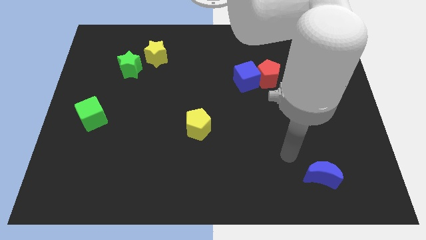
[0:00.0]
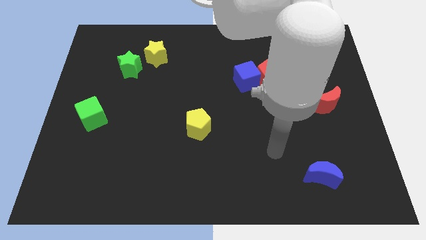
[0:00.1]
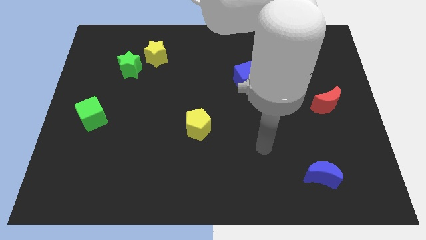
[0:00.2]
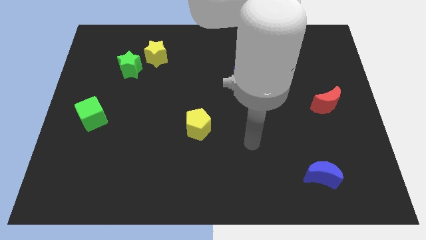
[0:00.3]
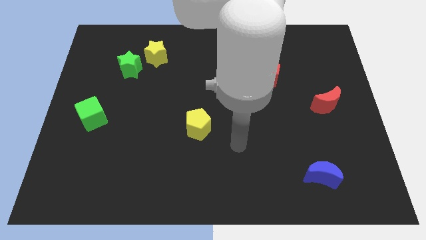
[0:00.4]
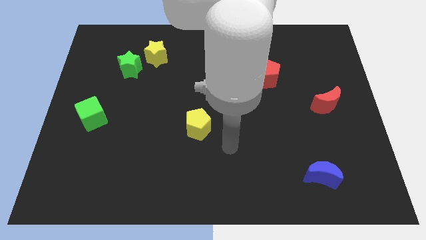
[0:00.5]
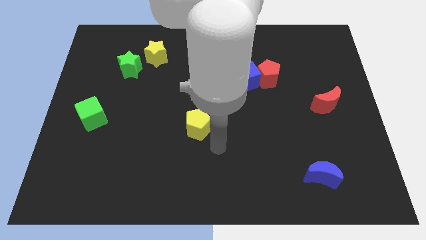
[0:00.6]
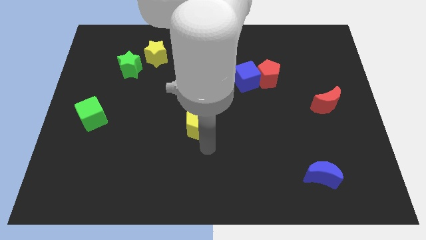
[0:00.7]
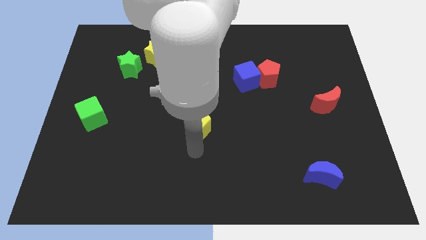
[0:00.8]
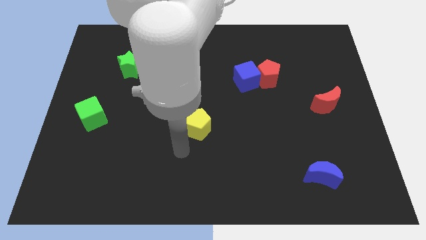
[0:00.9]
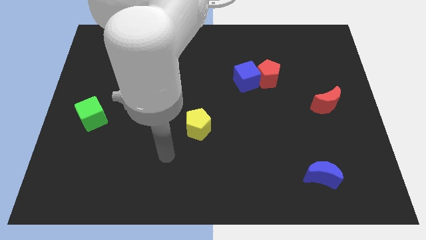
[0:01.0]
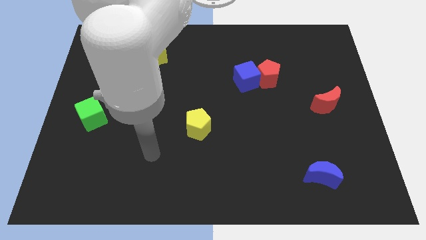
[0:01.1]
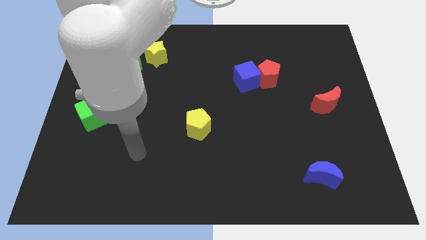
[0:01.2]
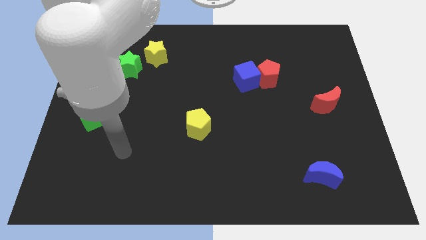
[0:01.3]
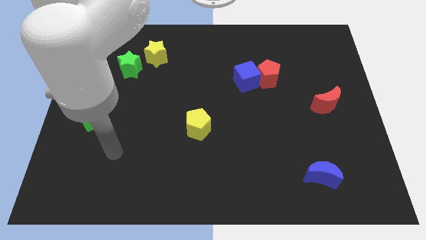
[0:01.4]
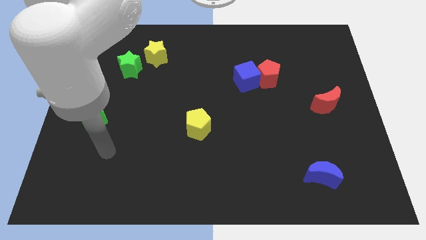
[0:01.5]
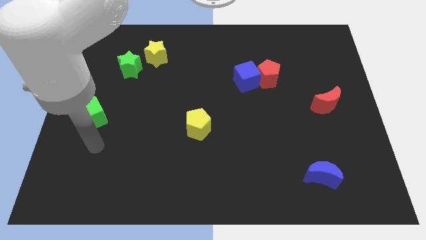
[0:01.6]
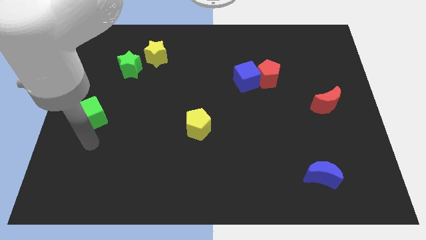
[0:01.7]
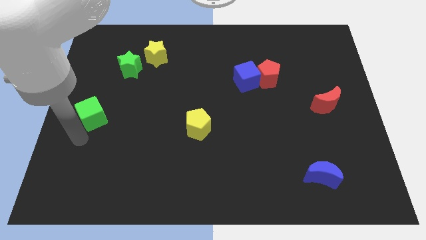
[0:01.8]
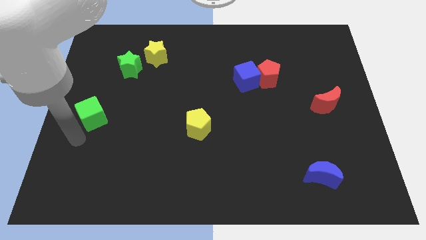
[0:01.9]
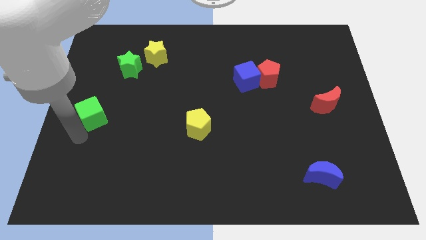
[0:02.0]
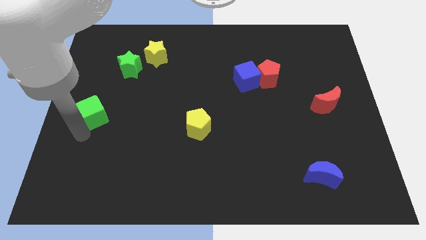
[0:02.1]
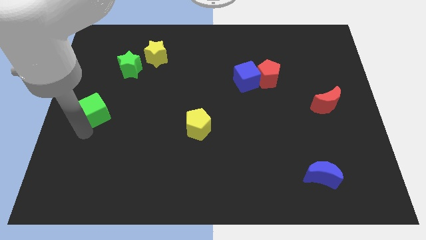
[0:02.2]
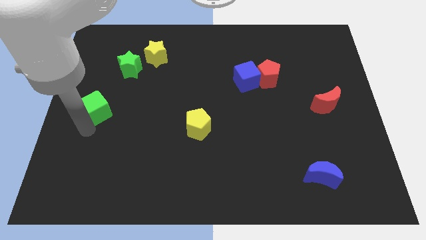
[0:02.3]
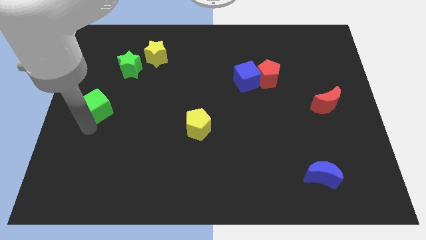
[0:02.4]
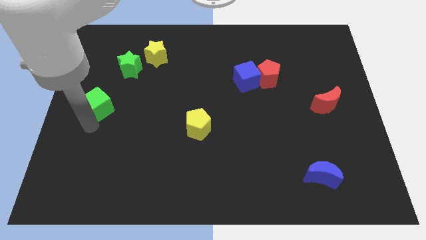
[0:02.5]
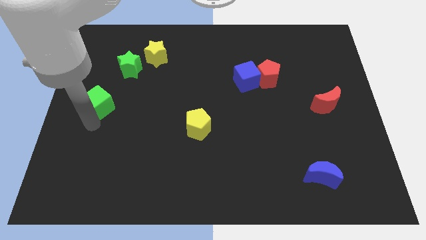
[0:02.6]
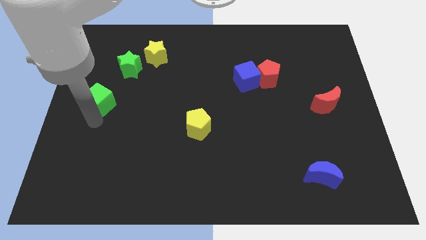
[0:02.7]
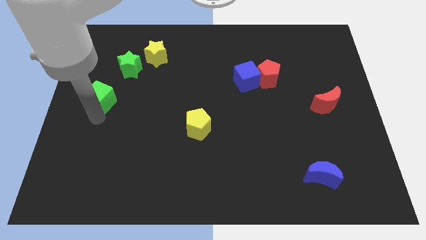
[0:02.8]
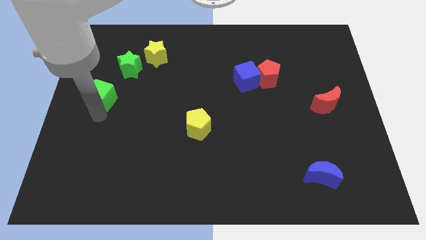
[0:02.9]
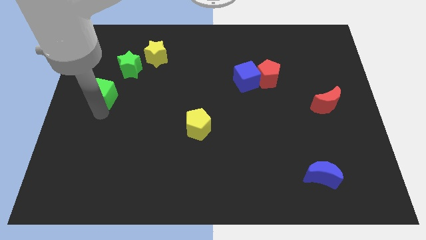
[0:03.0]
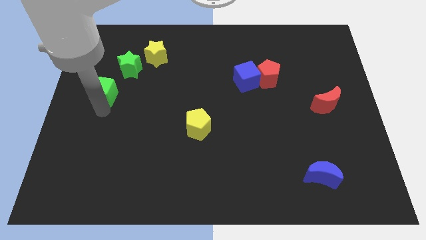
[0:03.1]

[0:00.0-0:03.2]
move the green cube upwards a bit

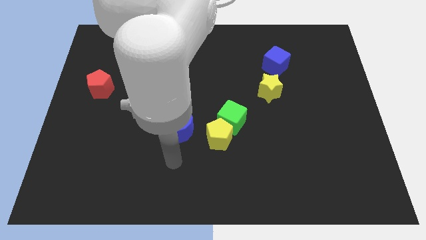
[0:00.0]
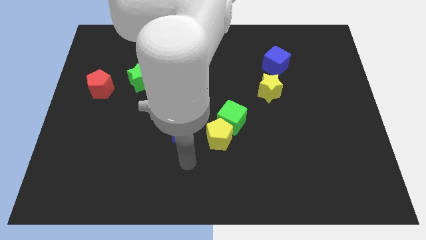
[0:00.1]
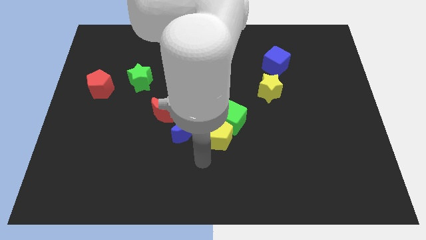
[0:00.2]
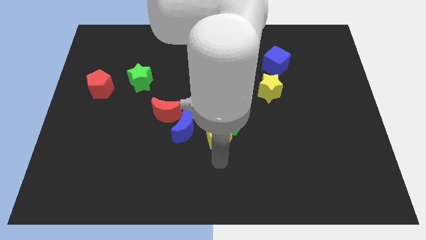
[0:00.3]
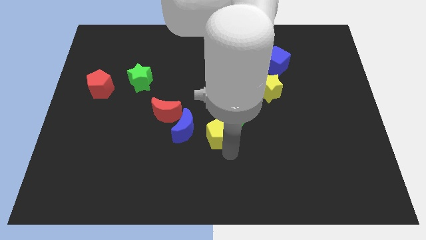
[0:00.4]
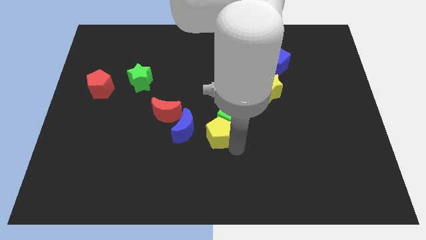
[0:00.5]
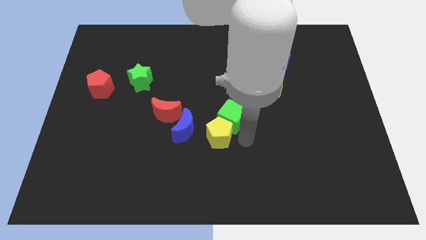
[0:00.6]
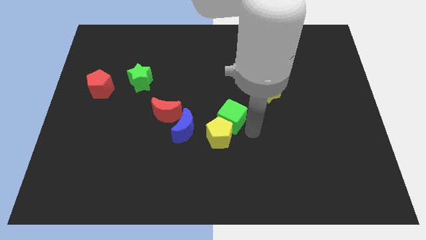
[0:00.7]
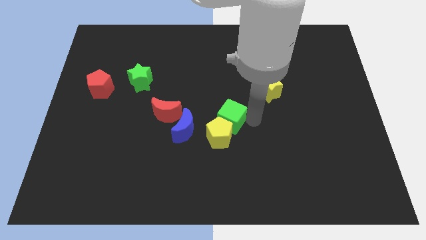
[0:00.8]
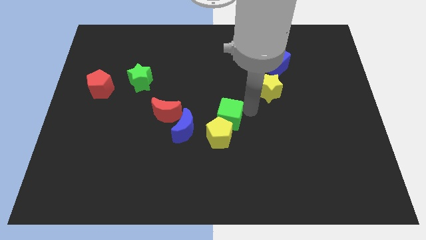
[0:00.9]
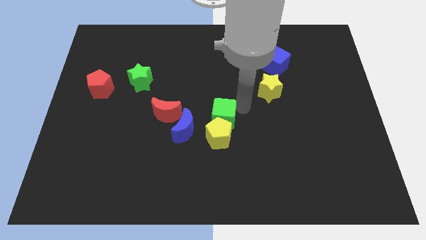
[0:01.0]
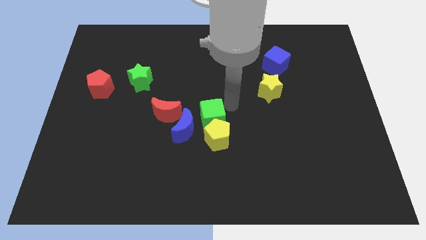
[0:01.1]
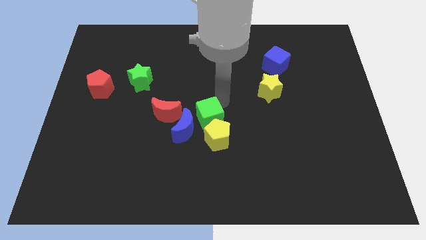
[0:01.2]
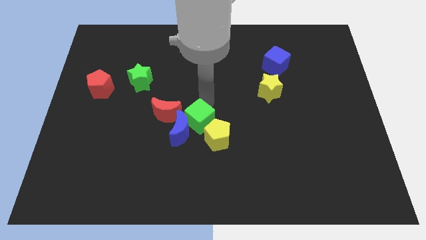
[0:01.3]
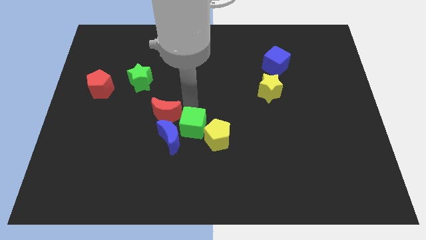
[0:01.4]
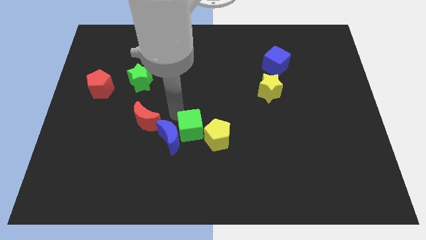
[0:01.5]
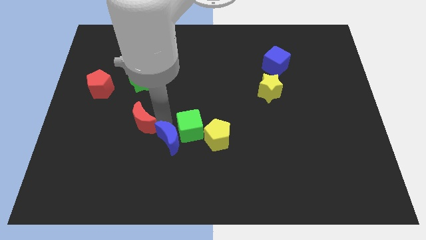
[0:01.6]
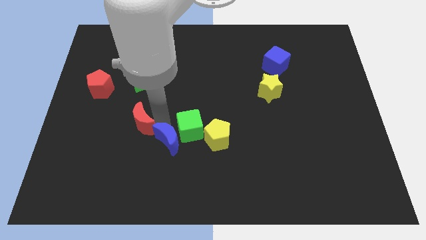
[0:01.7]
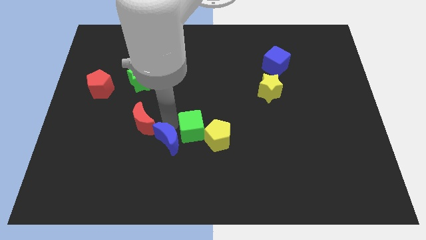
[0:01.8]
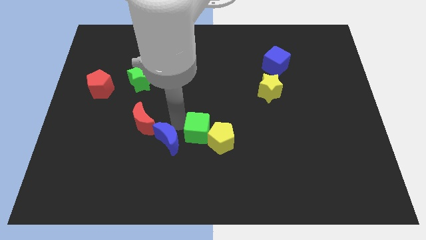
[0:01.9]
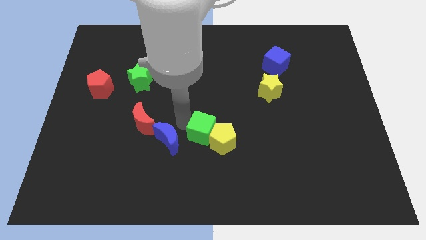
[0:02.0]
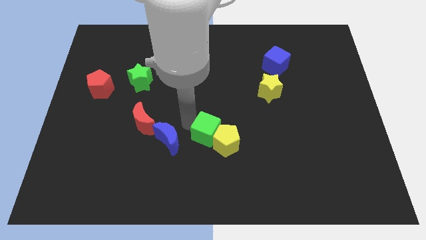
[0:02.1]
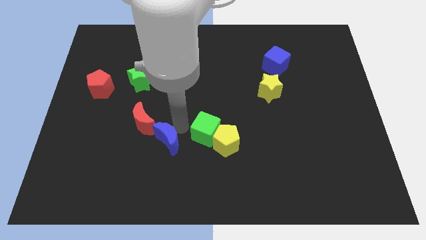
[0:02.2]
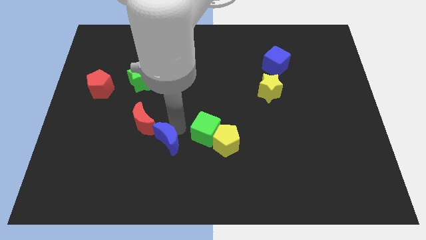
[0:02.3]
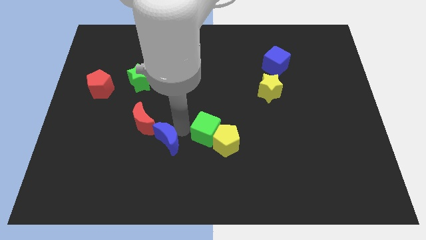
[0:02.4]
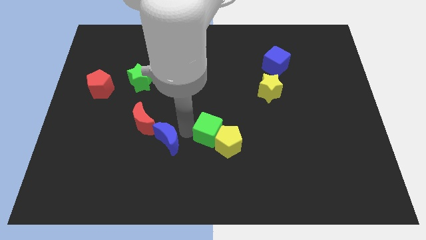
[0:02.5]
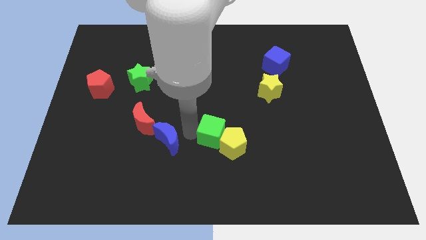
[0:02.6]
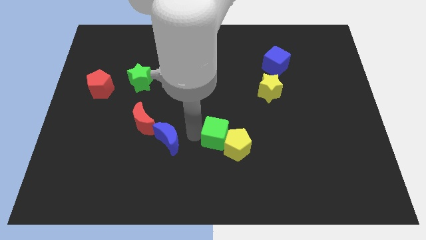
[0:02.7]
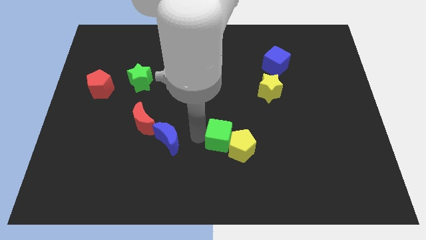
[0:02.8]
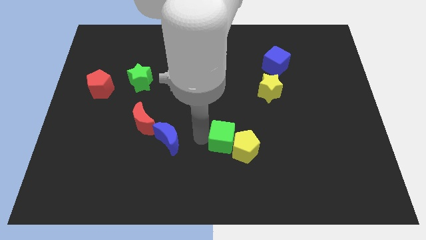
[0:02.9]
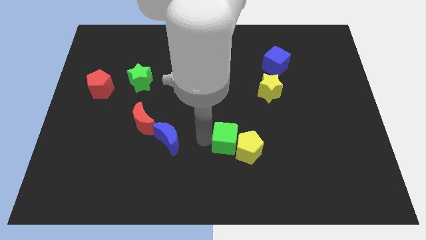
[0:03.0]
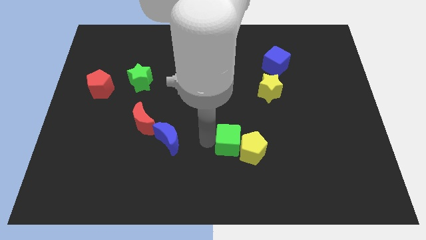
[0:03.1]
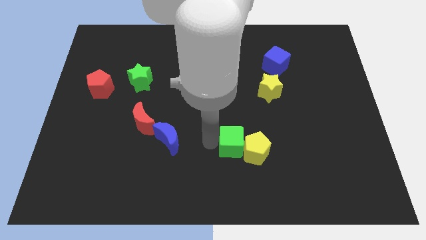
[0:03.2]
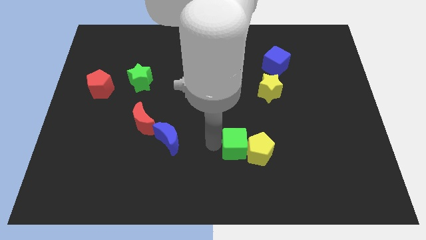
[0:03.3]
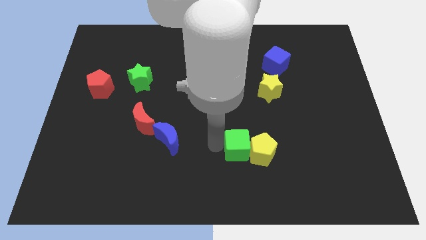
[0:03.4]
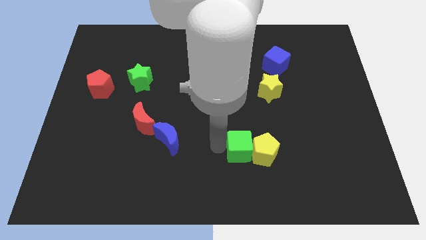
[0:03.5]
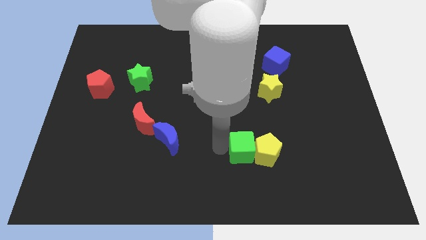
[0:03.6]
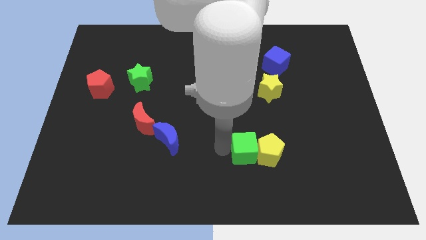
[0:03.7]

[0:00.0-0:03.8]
slide the green cube a little bit downwards and then to the right

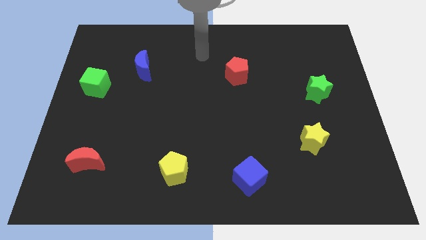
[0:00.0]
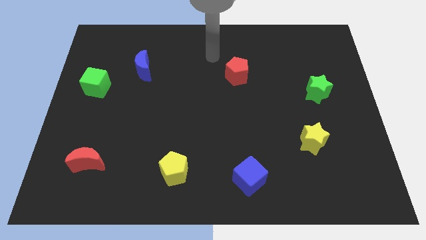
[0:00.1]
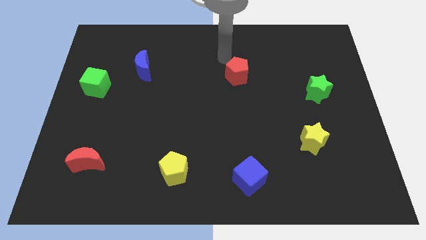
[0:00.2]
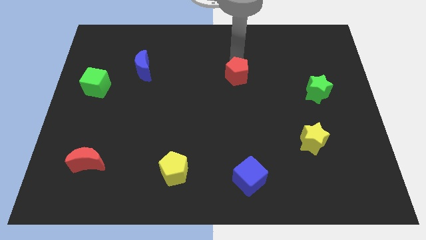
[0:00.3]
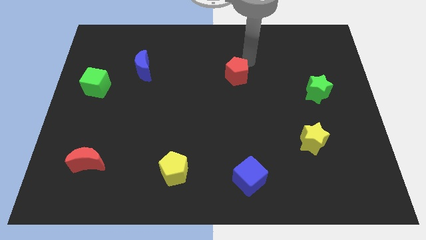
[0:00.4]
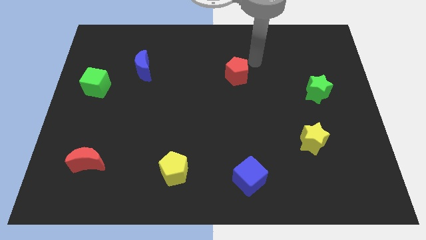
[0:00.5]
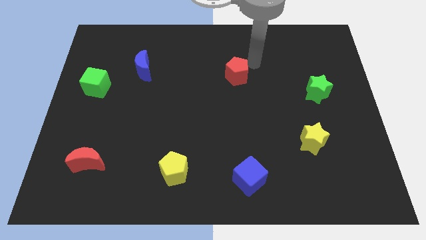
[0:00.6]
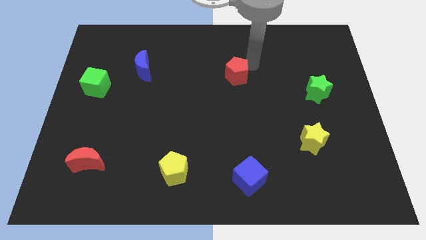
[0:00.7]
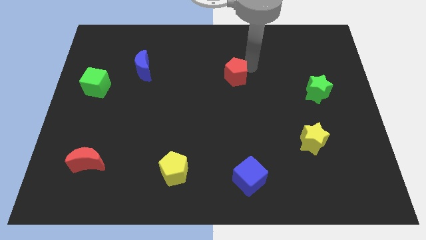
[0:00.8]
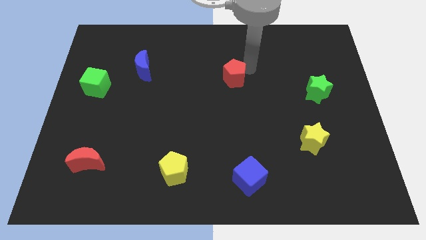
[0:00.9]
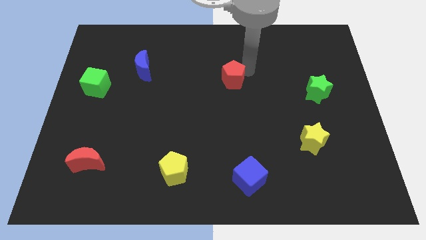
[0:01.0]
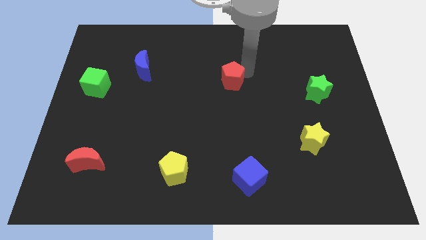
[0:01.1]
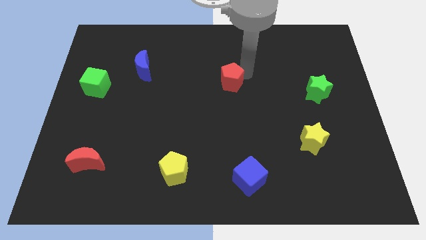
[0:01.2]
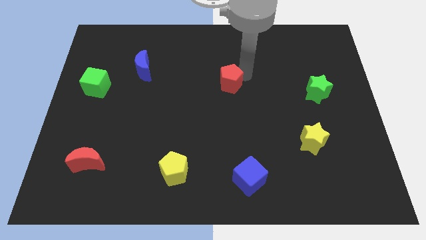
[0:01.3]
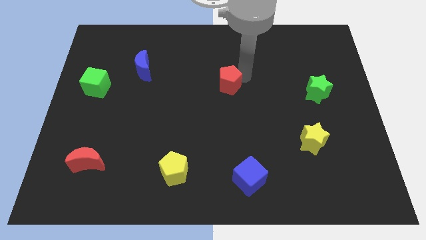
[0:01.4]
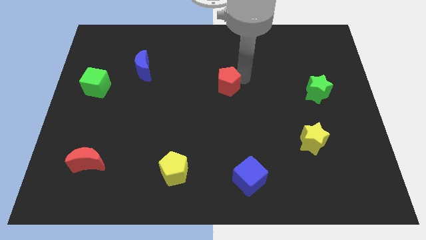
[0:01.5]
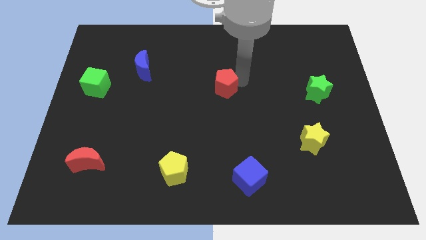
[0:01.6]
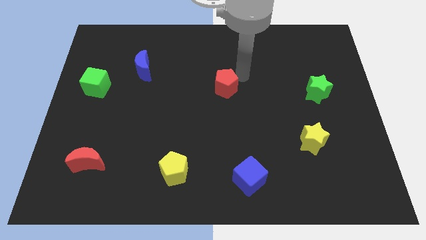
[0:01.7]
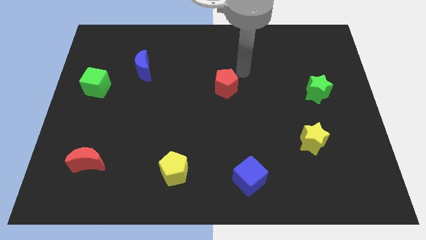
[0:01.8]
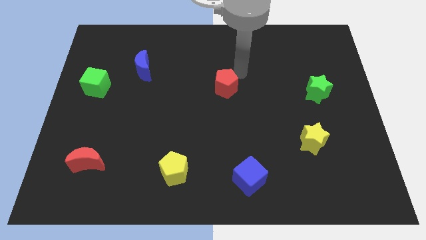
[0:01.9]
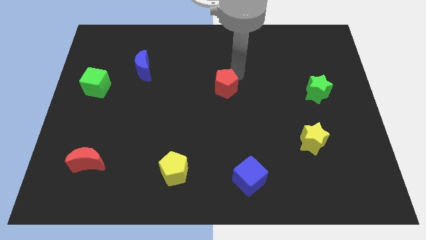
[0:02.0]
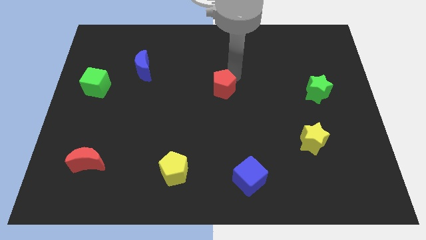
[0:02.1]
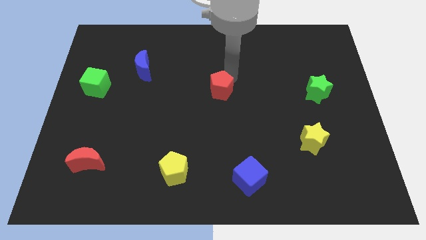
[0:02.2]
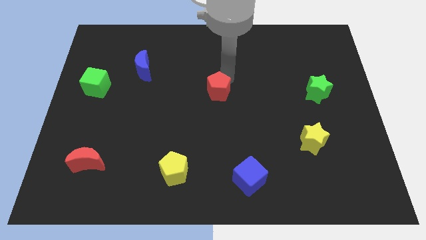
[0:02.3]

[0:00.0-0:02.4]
move the red pentagon downwards and to the left diagonally a little
